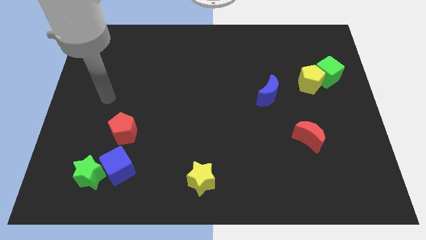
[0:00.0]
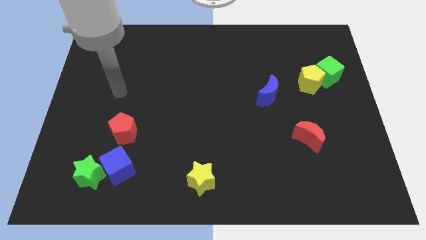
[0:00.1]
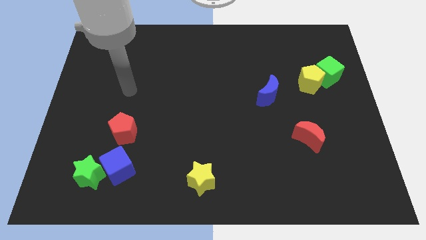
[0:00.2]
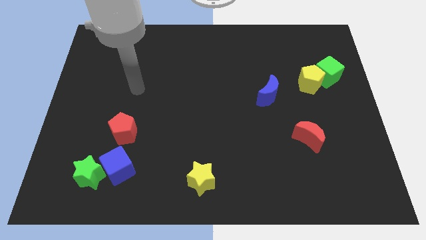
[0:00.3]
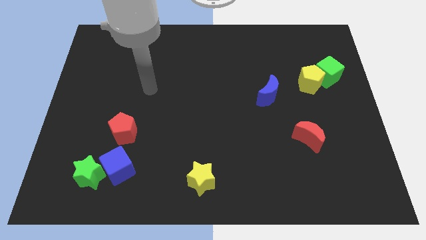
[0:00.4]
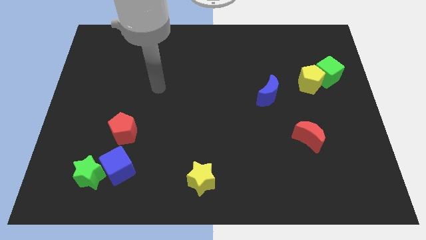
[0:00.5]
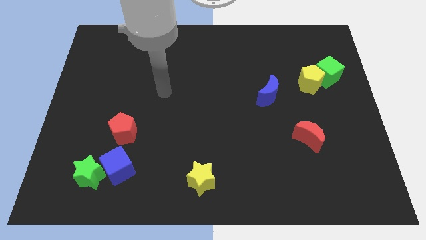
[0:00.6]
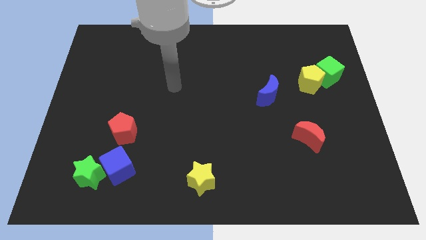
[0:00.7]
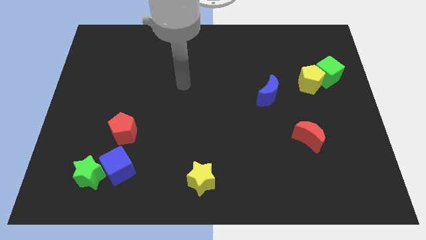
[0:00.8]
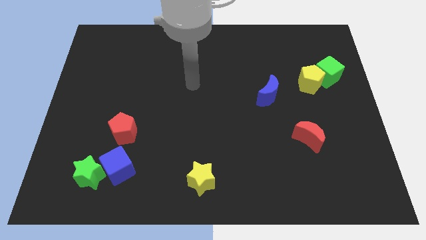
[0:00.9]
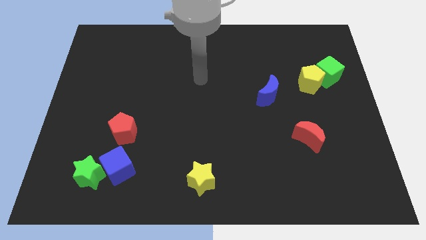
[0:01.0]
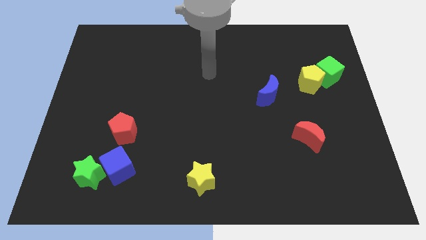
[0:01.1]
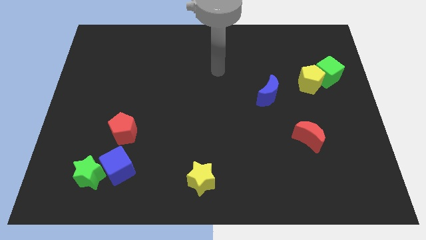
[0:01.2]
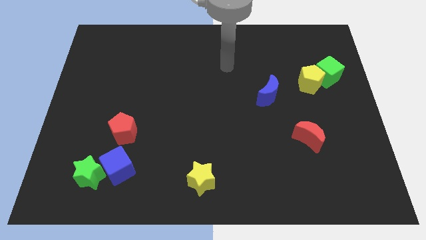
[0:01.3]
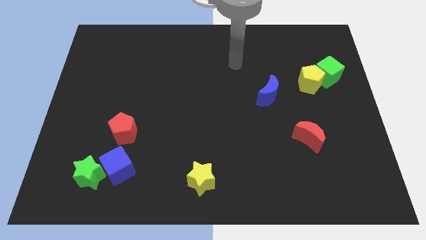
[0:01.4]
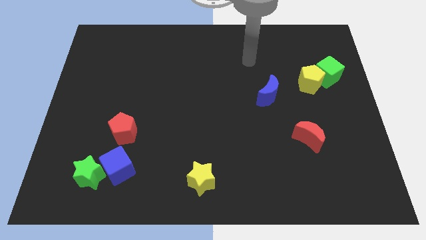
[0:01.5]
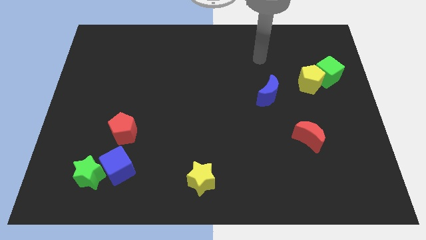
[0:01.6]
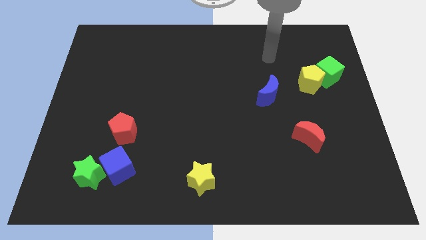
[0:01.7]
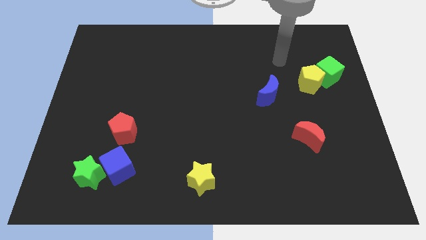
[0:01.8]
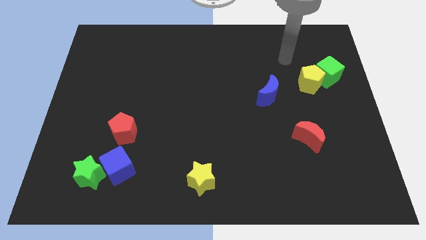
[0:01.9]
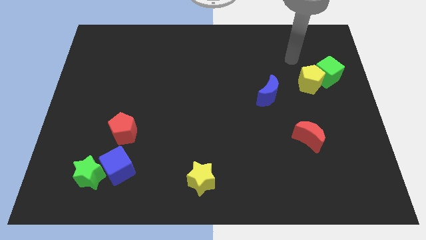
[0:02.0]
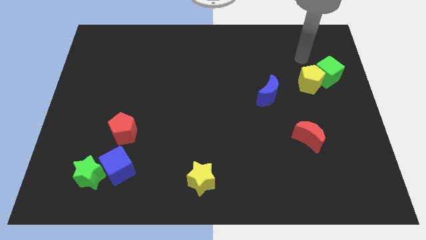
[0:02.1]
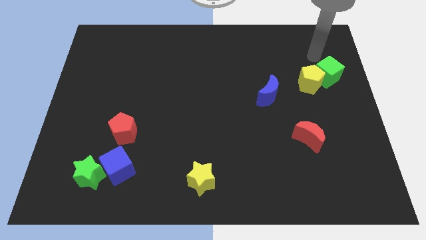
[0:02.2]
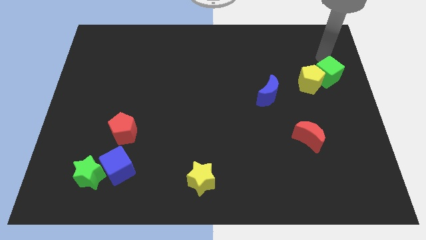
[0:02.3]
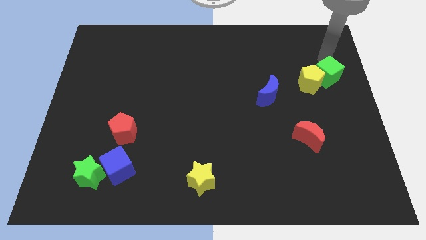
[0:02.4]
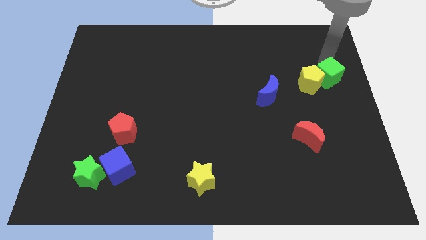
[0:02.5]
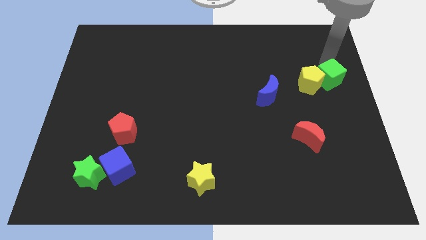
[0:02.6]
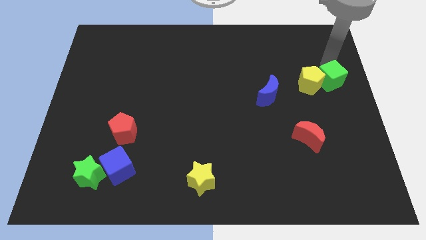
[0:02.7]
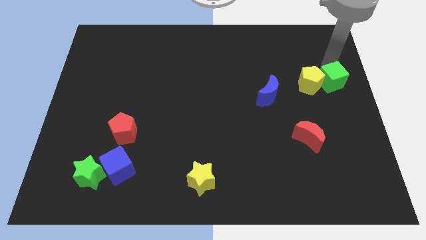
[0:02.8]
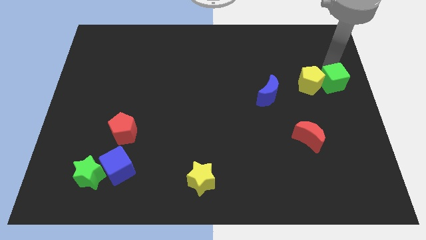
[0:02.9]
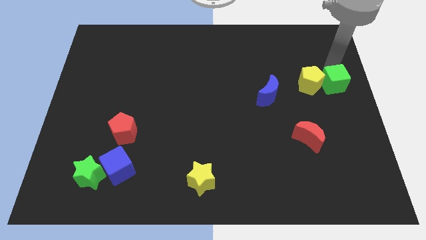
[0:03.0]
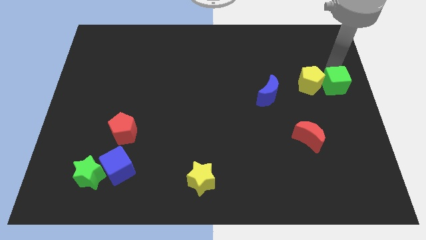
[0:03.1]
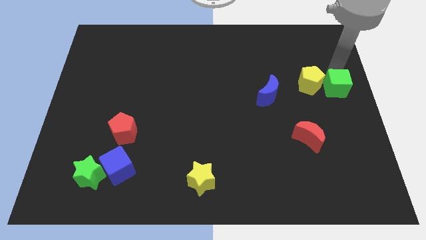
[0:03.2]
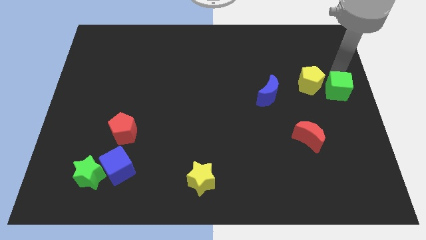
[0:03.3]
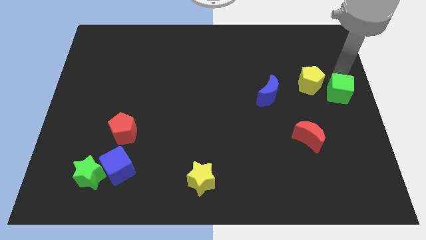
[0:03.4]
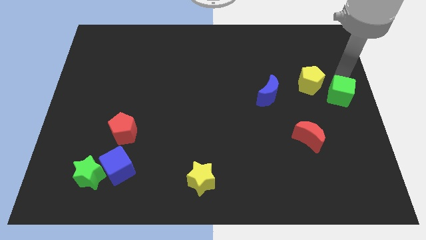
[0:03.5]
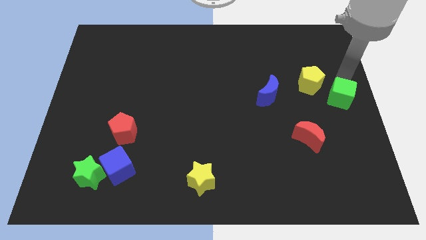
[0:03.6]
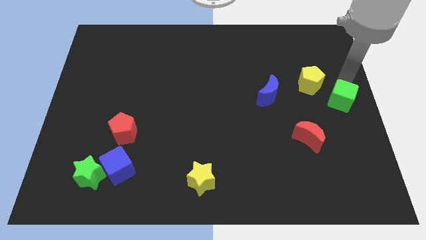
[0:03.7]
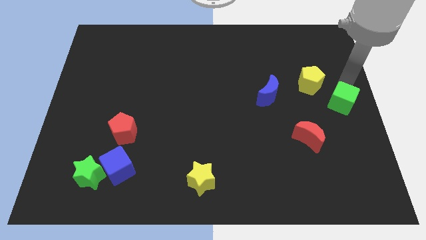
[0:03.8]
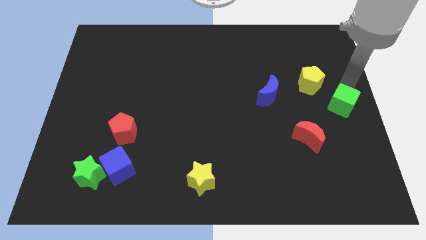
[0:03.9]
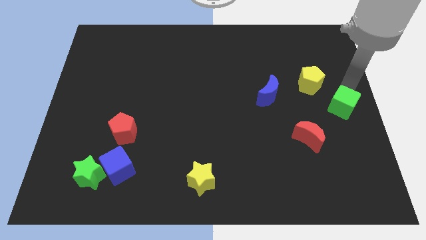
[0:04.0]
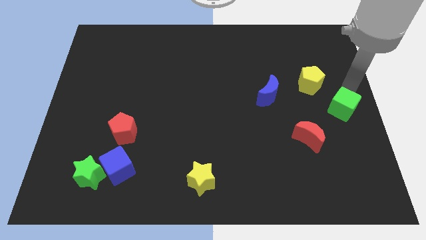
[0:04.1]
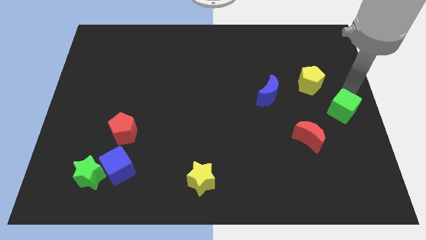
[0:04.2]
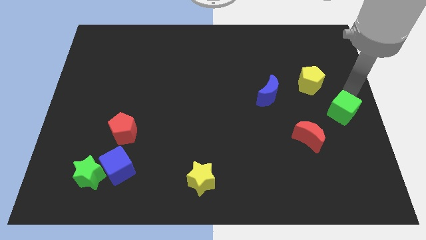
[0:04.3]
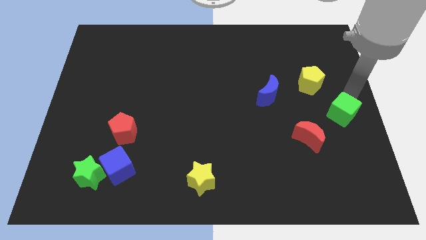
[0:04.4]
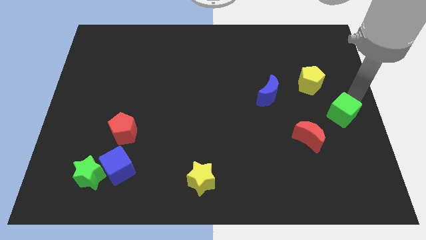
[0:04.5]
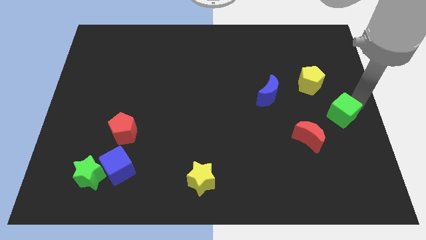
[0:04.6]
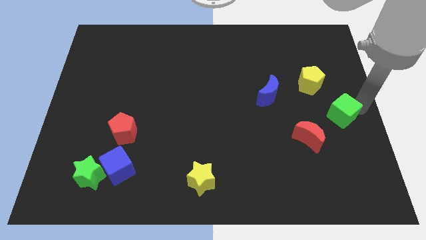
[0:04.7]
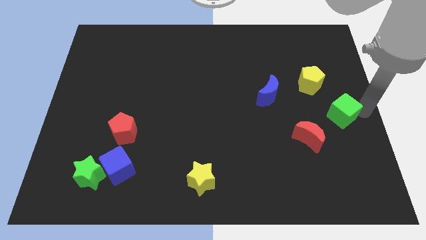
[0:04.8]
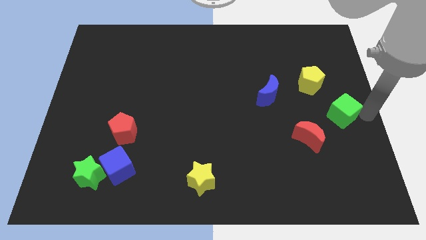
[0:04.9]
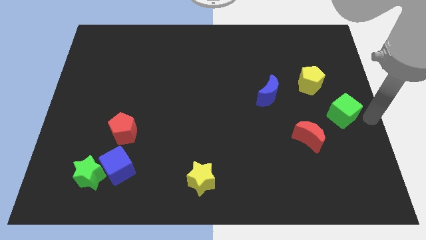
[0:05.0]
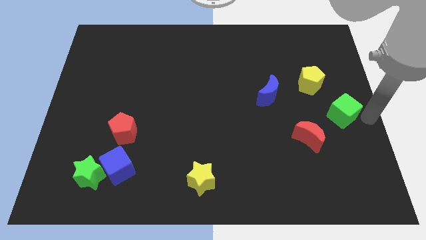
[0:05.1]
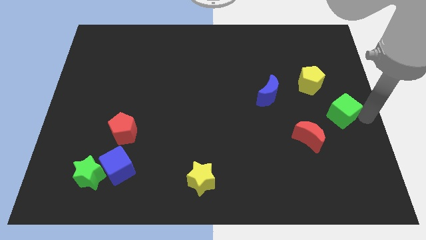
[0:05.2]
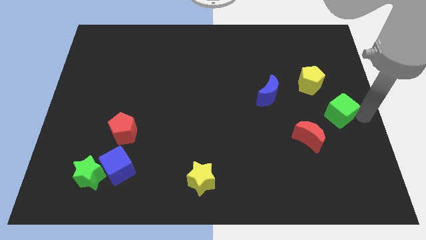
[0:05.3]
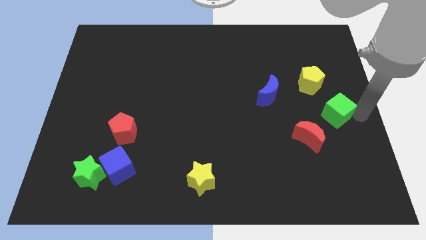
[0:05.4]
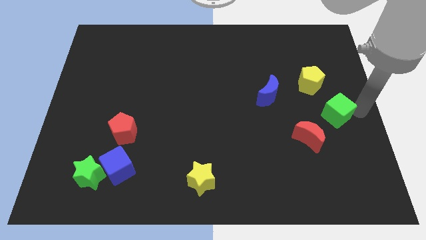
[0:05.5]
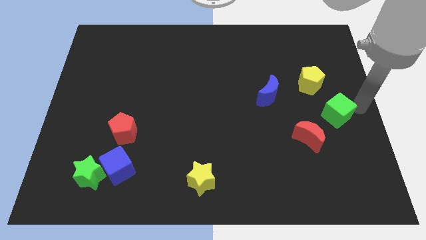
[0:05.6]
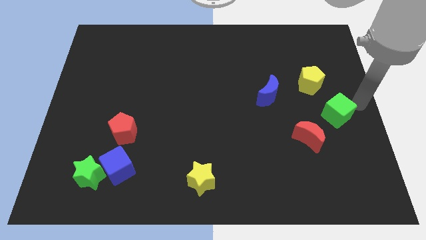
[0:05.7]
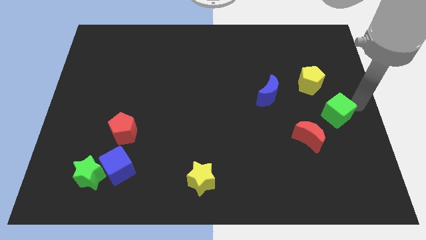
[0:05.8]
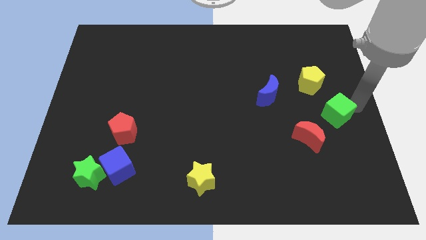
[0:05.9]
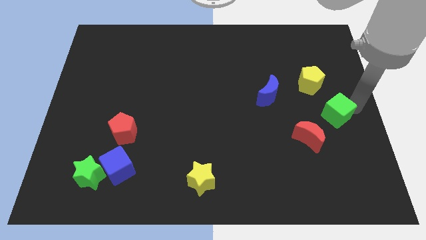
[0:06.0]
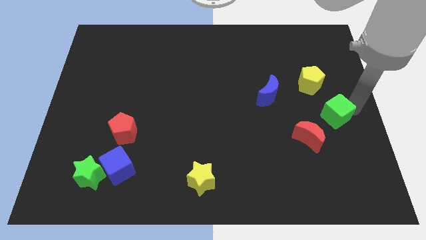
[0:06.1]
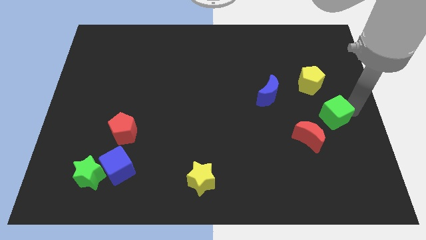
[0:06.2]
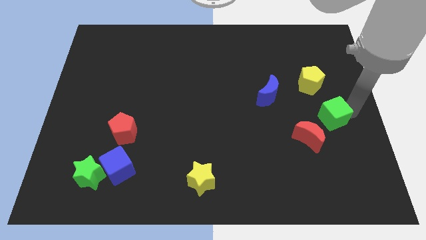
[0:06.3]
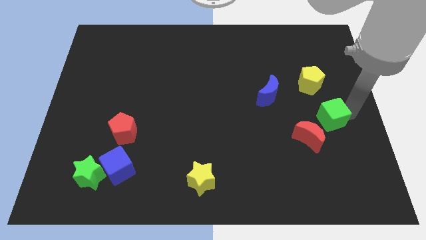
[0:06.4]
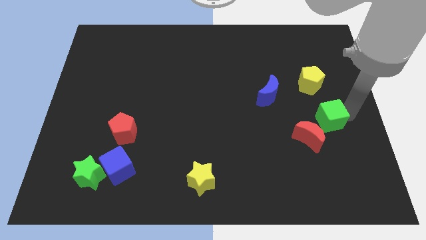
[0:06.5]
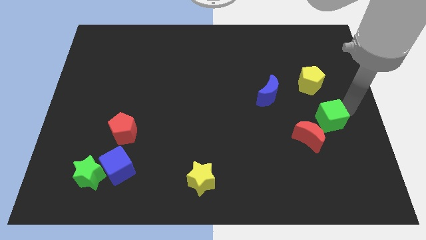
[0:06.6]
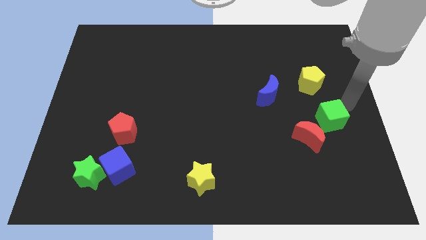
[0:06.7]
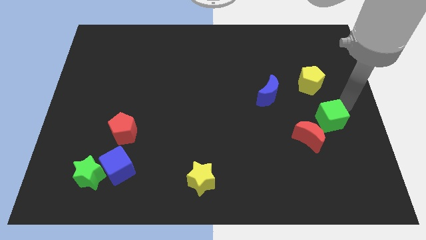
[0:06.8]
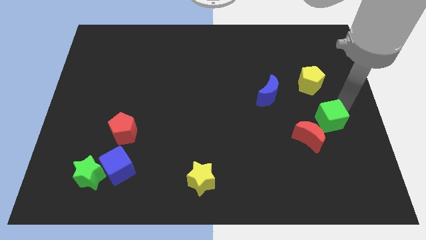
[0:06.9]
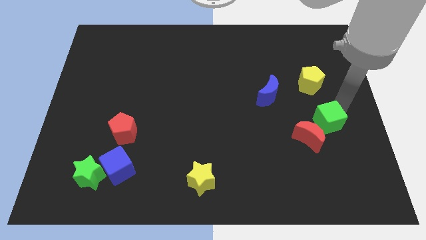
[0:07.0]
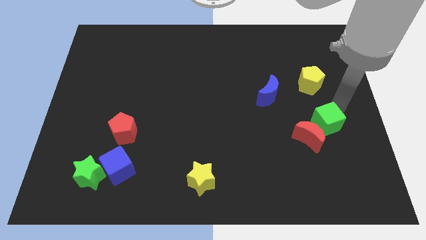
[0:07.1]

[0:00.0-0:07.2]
slide the green cube towards the red moon
